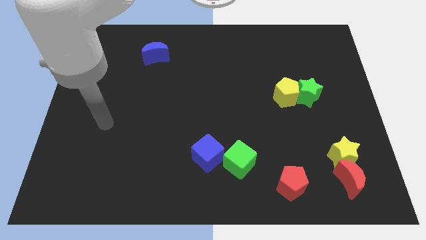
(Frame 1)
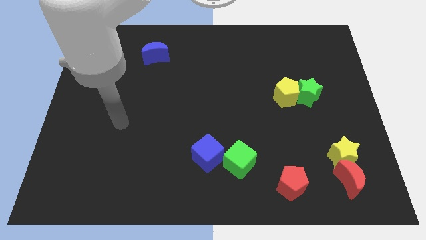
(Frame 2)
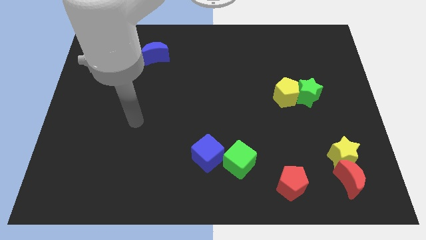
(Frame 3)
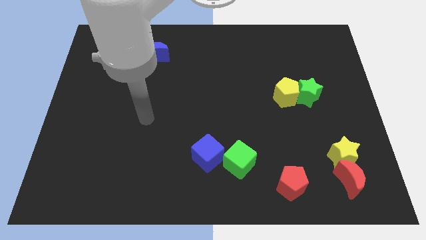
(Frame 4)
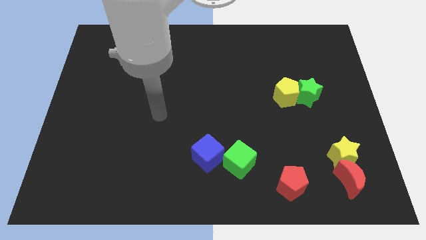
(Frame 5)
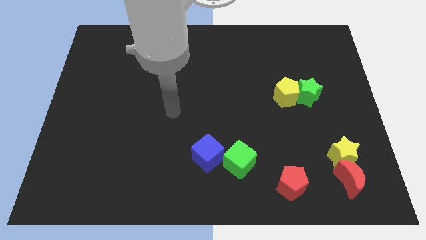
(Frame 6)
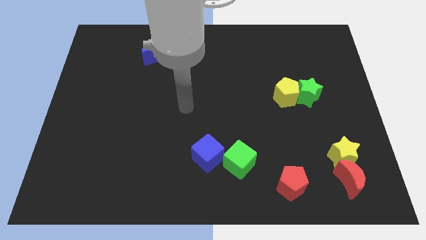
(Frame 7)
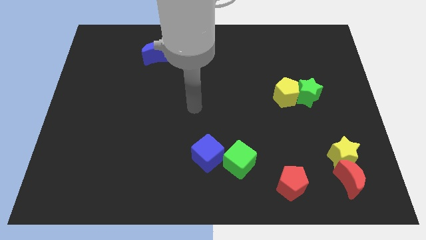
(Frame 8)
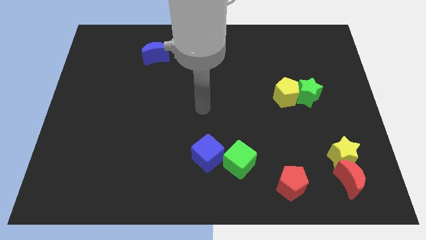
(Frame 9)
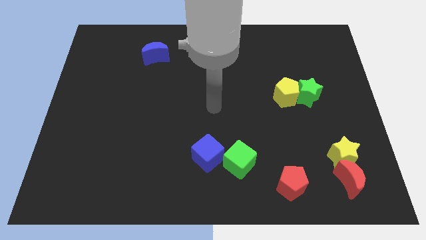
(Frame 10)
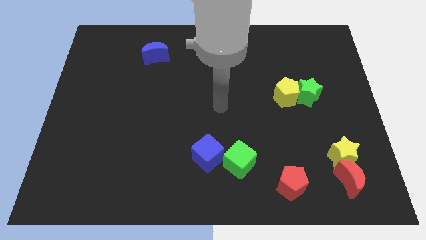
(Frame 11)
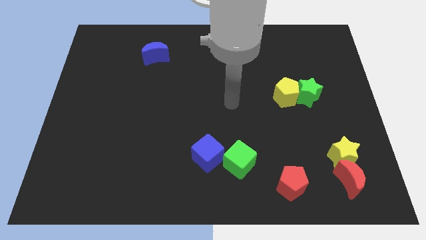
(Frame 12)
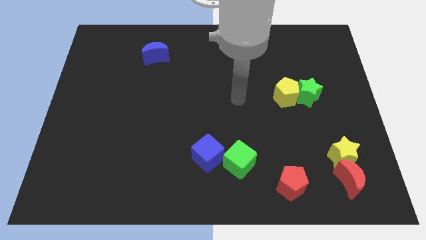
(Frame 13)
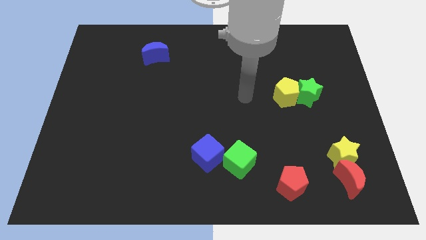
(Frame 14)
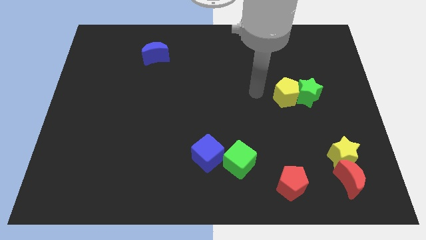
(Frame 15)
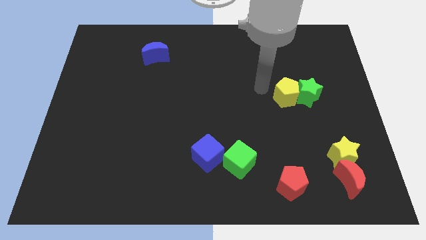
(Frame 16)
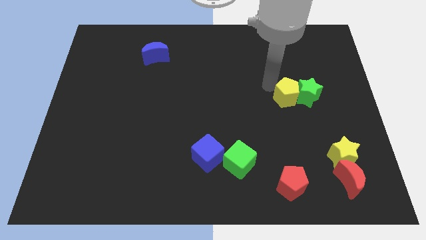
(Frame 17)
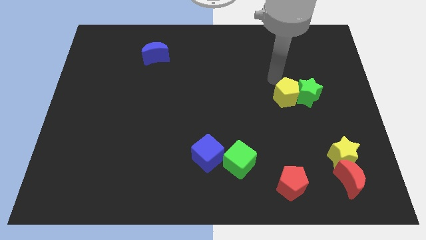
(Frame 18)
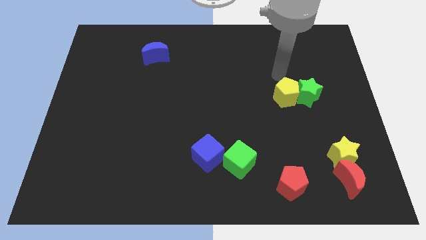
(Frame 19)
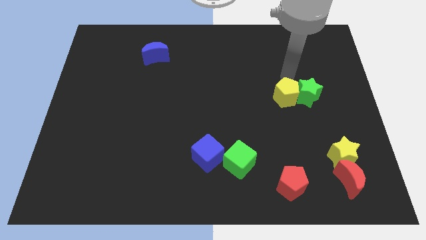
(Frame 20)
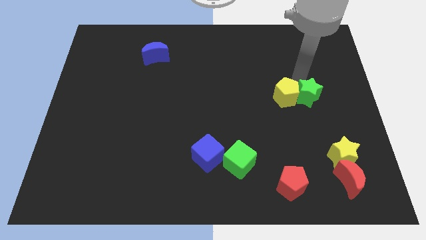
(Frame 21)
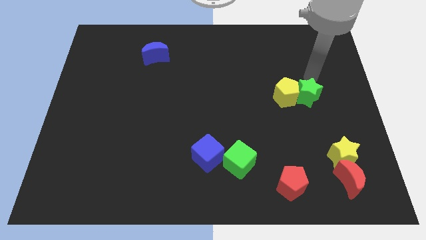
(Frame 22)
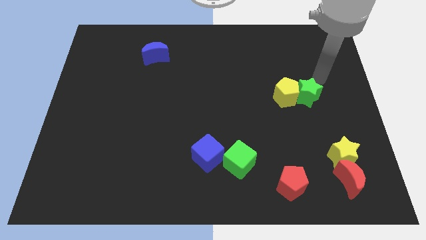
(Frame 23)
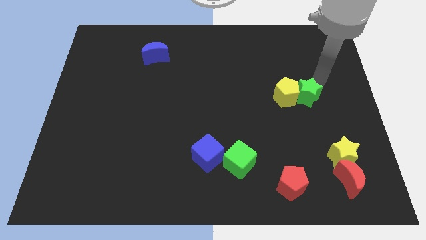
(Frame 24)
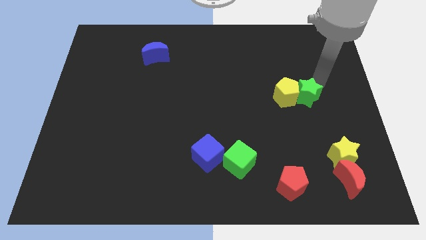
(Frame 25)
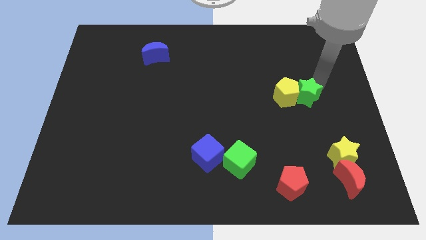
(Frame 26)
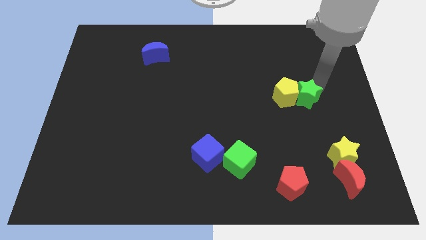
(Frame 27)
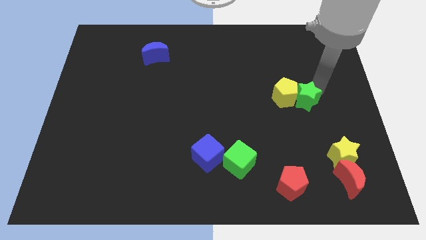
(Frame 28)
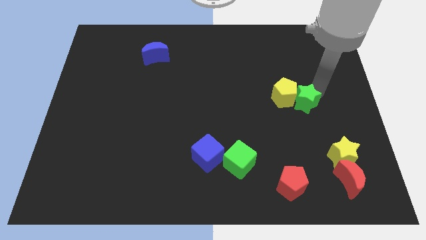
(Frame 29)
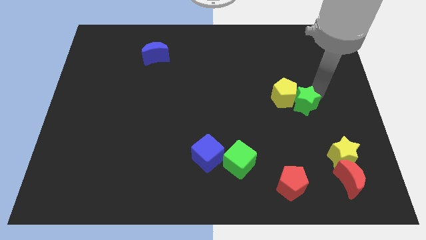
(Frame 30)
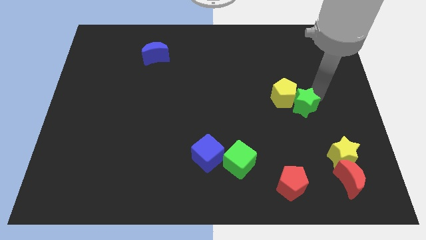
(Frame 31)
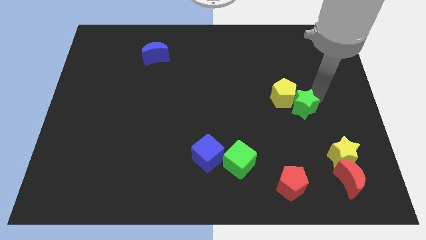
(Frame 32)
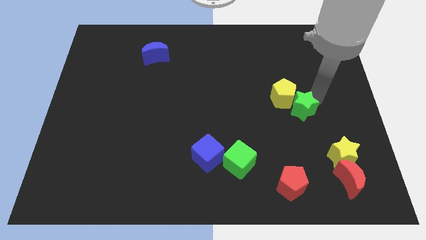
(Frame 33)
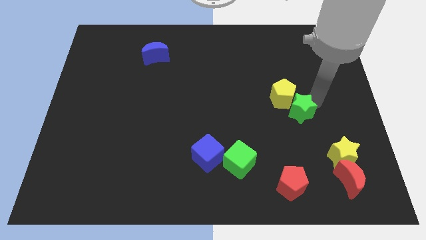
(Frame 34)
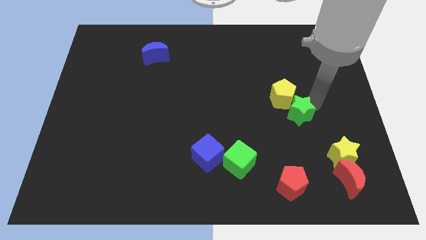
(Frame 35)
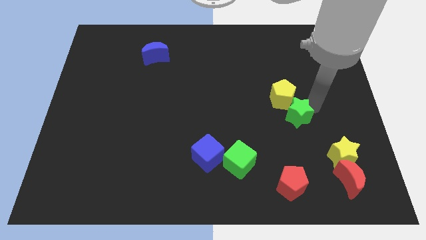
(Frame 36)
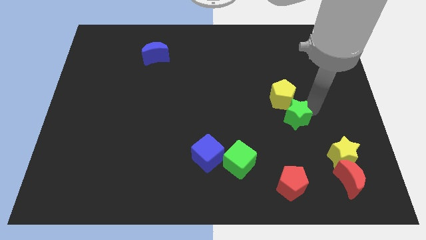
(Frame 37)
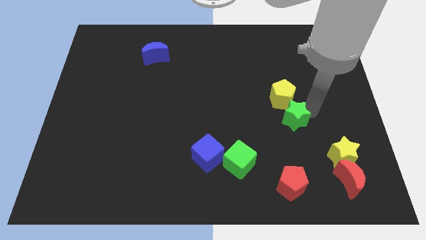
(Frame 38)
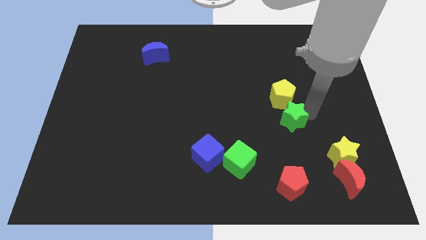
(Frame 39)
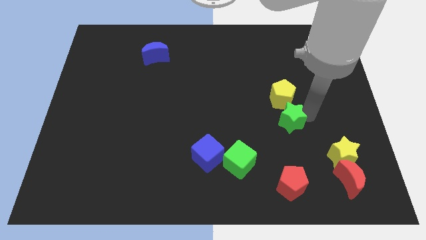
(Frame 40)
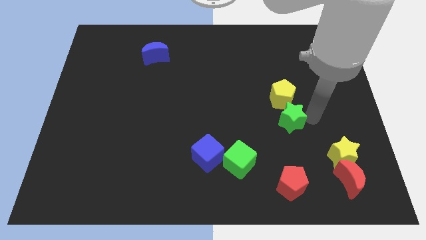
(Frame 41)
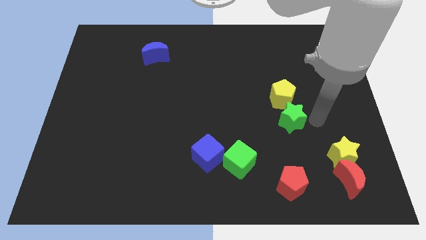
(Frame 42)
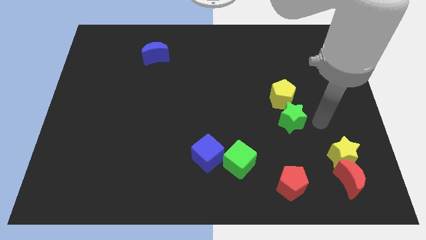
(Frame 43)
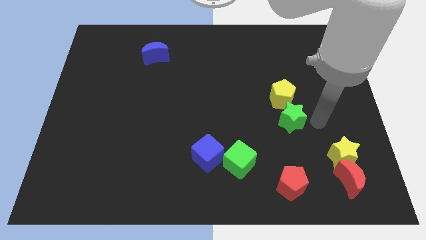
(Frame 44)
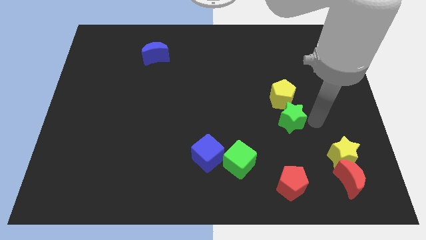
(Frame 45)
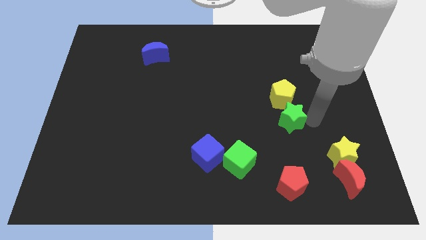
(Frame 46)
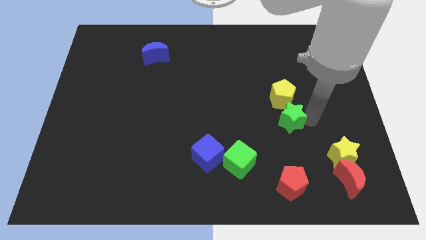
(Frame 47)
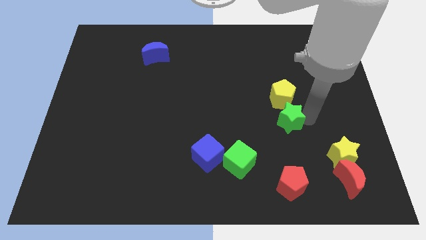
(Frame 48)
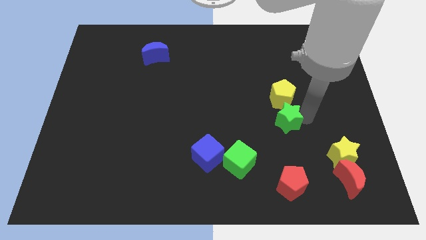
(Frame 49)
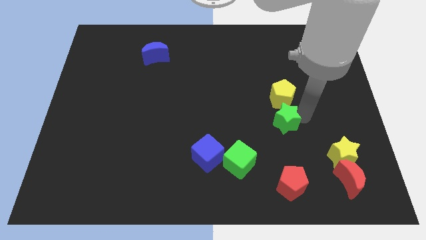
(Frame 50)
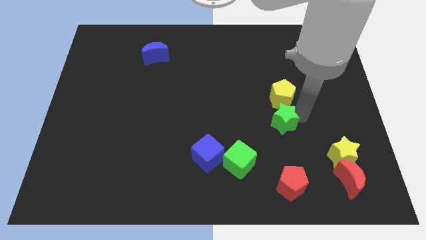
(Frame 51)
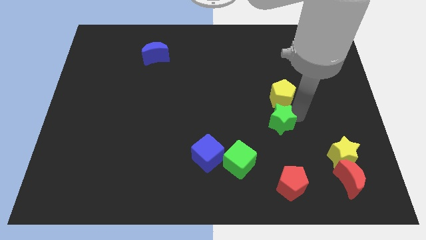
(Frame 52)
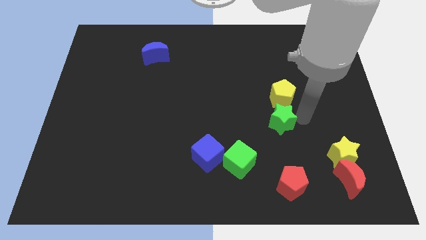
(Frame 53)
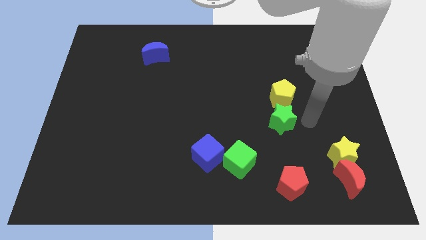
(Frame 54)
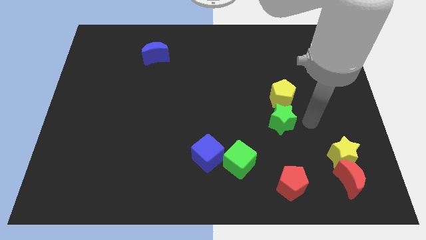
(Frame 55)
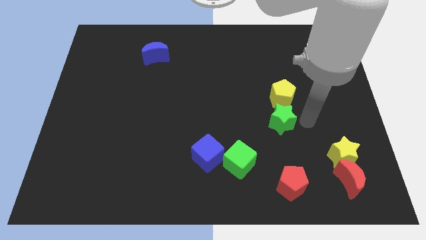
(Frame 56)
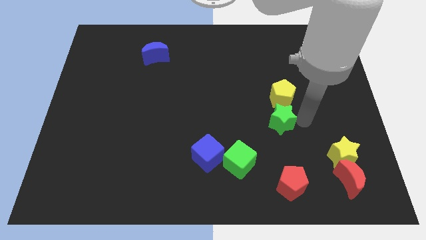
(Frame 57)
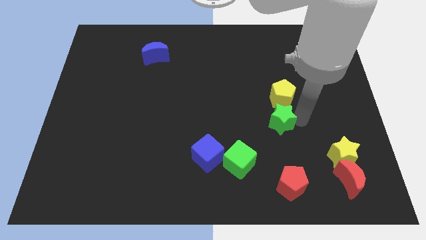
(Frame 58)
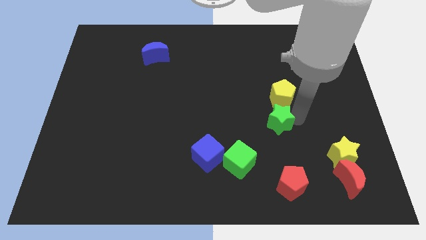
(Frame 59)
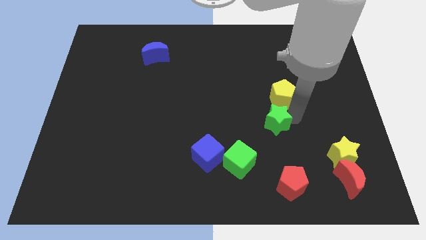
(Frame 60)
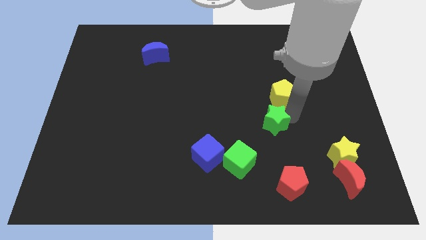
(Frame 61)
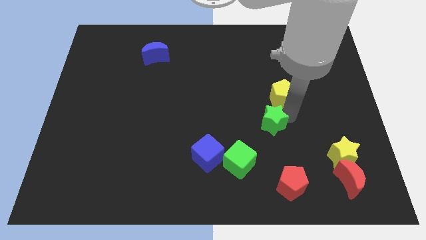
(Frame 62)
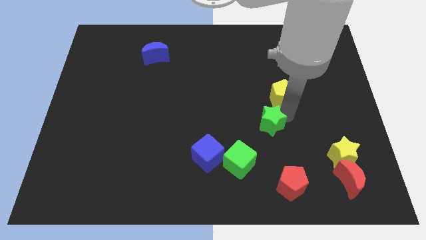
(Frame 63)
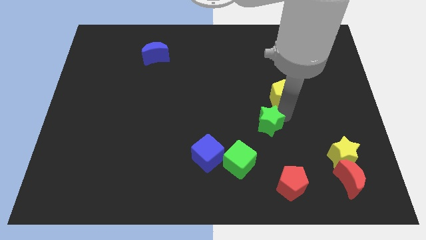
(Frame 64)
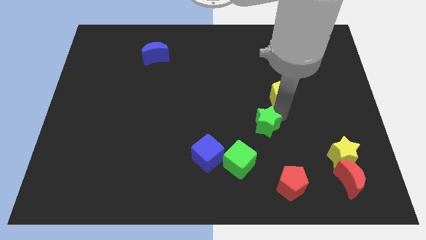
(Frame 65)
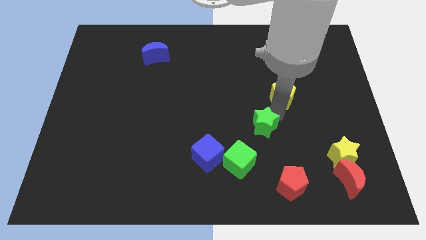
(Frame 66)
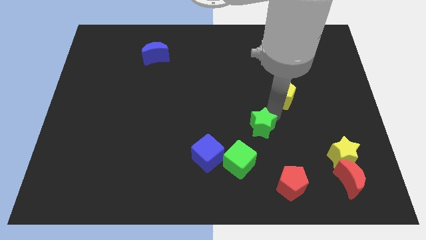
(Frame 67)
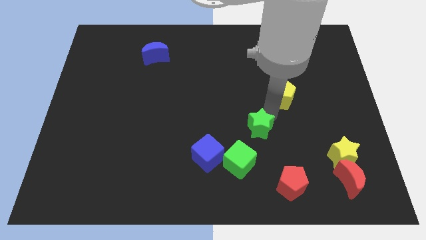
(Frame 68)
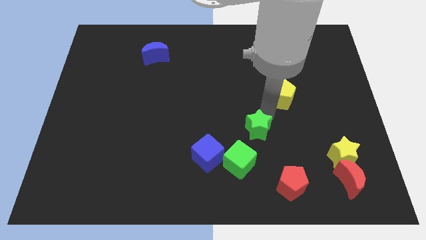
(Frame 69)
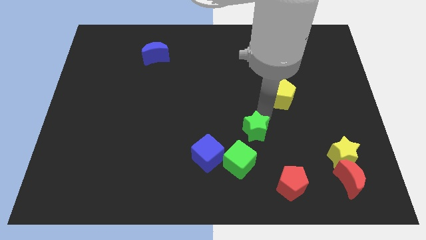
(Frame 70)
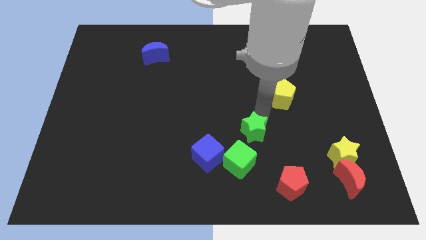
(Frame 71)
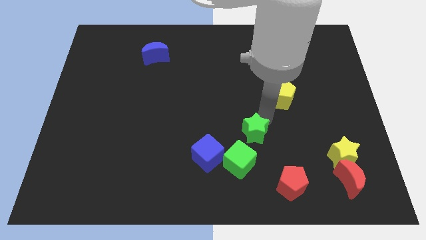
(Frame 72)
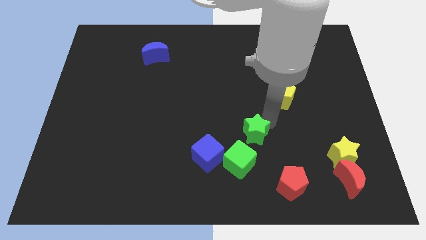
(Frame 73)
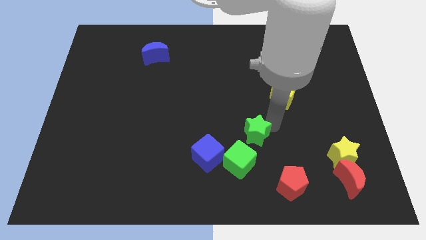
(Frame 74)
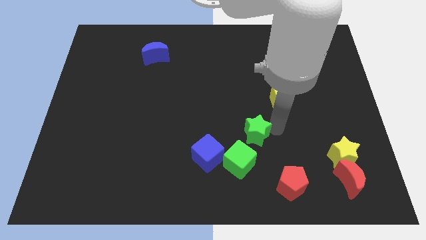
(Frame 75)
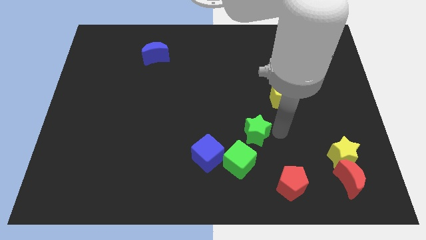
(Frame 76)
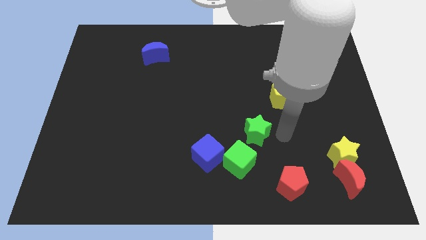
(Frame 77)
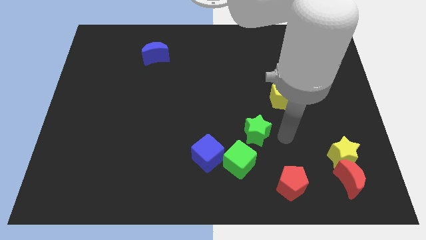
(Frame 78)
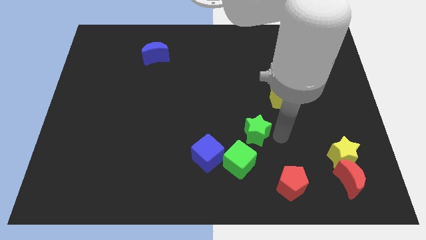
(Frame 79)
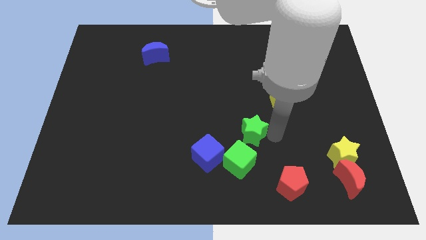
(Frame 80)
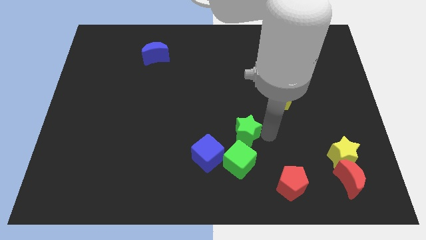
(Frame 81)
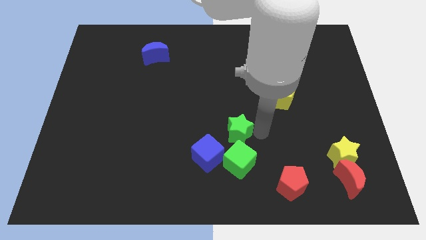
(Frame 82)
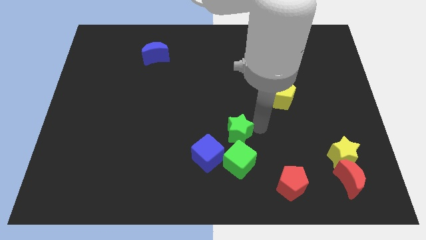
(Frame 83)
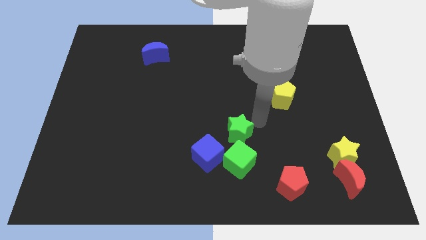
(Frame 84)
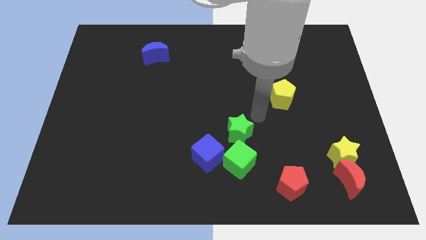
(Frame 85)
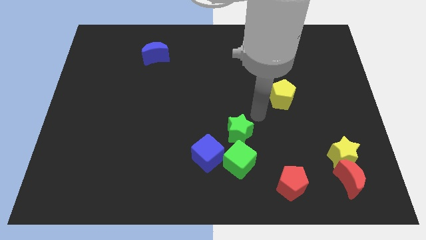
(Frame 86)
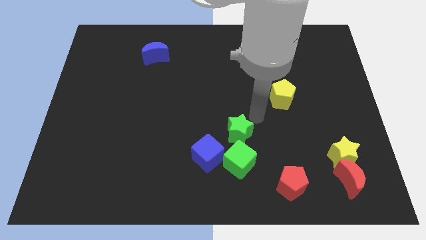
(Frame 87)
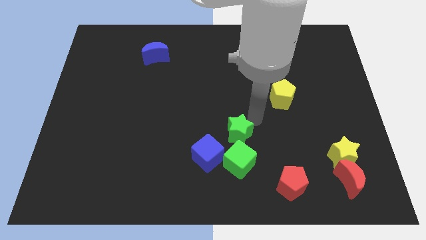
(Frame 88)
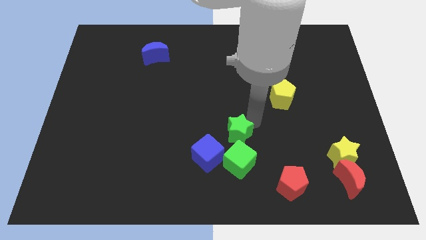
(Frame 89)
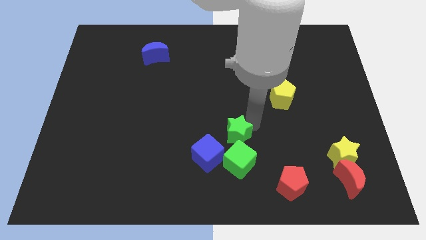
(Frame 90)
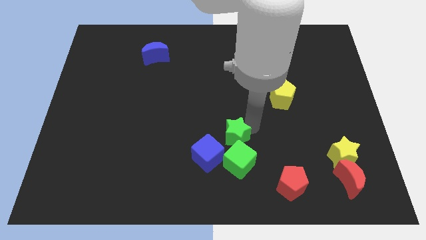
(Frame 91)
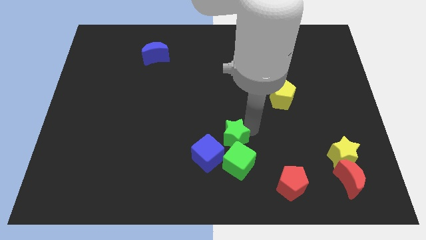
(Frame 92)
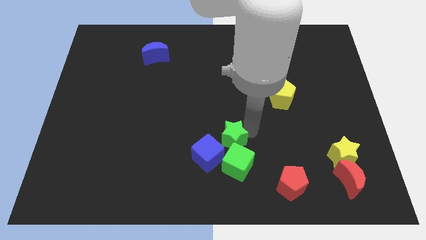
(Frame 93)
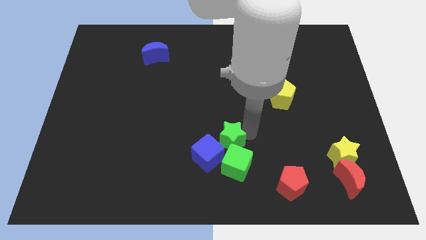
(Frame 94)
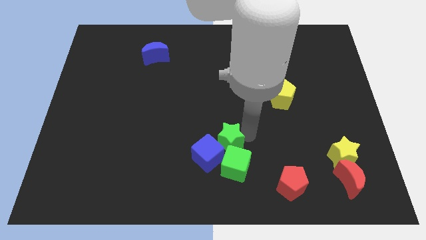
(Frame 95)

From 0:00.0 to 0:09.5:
push the green star close to the blue cube
